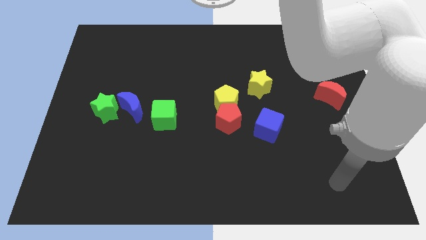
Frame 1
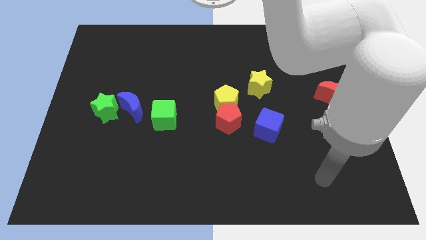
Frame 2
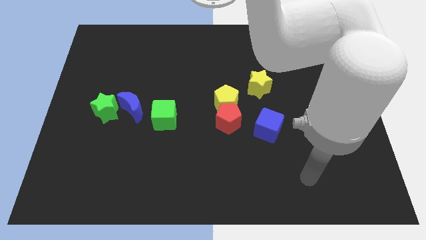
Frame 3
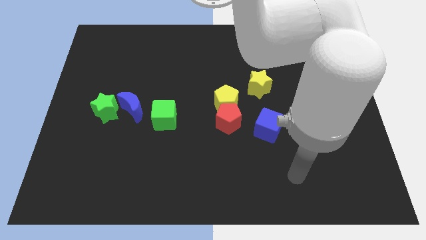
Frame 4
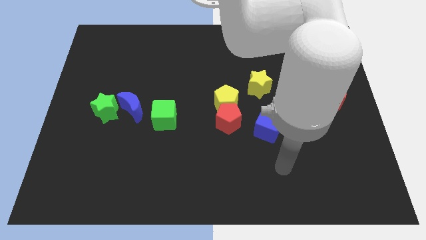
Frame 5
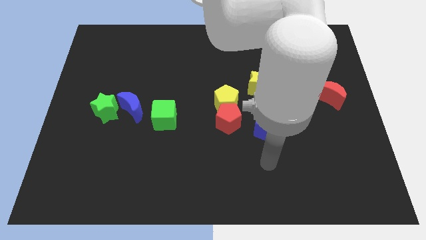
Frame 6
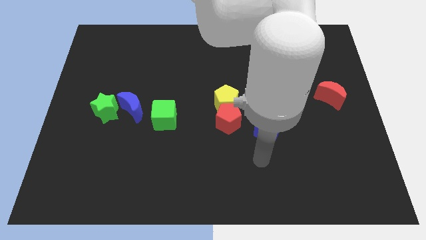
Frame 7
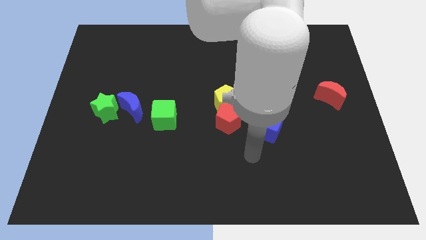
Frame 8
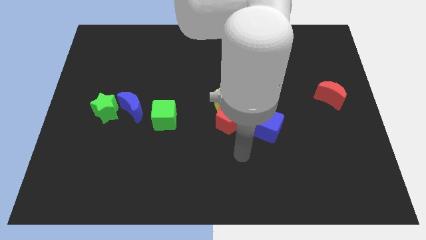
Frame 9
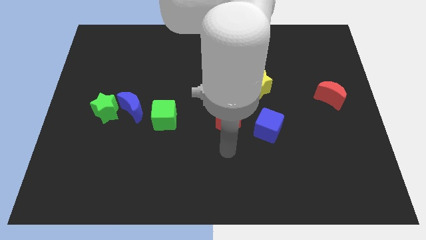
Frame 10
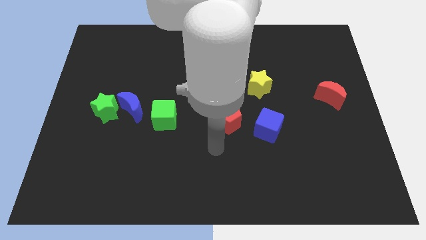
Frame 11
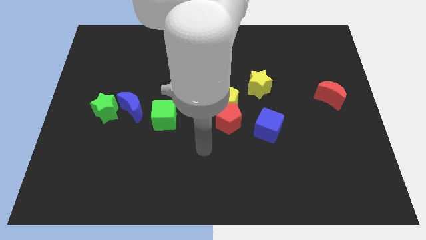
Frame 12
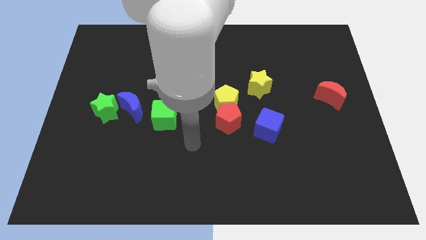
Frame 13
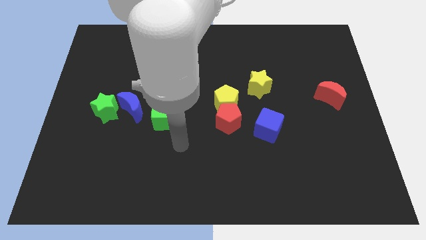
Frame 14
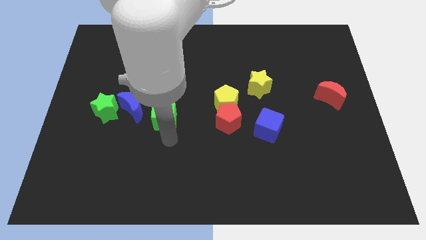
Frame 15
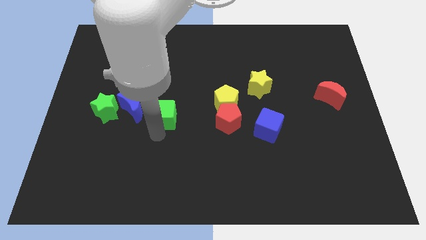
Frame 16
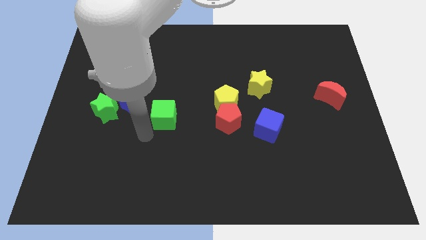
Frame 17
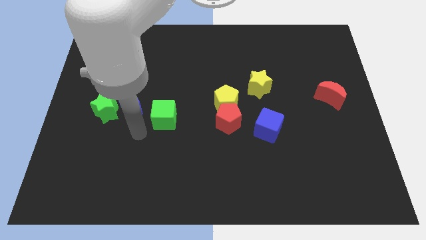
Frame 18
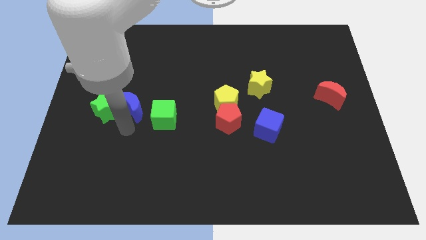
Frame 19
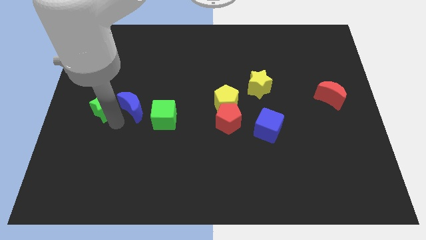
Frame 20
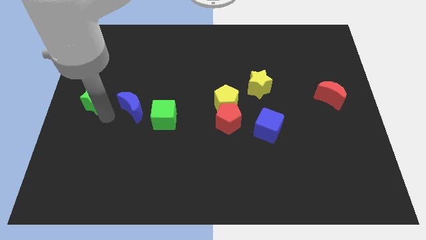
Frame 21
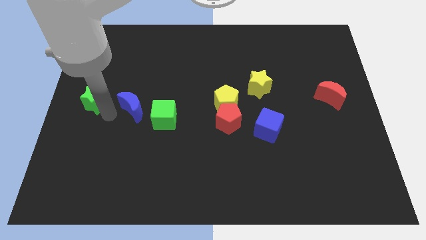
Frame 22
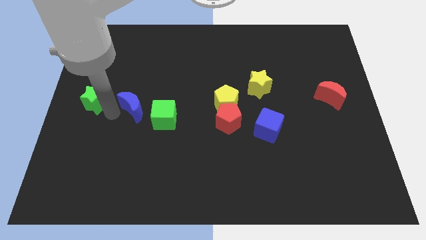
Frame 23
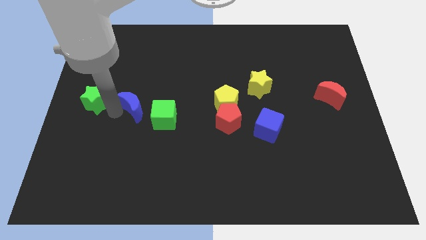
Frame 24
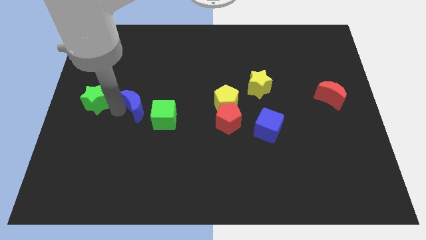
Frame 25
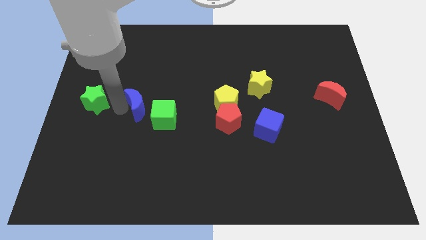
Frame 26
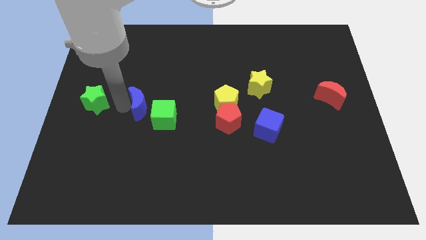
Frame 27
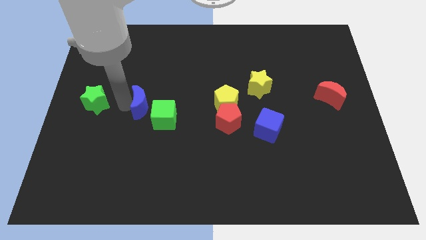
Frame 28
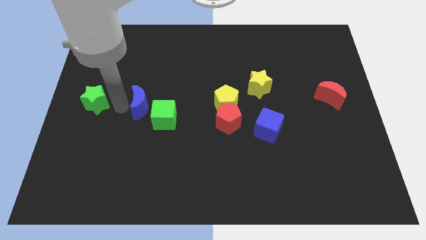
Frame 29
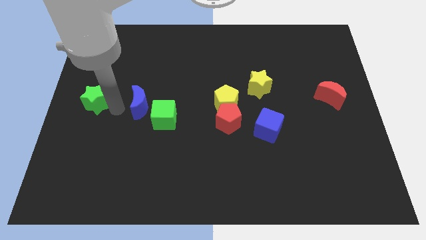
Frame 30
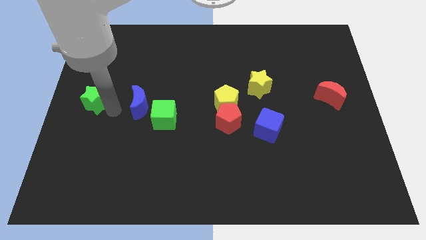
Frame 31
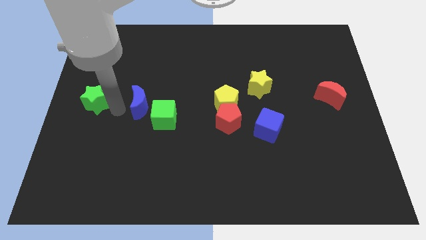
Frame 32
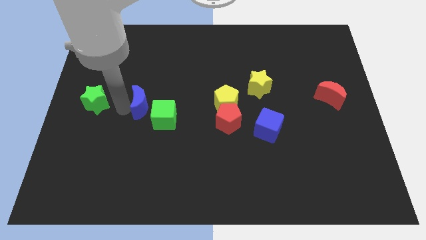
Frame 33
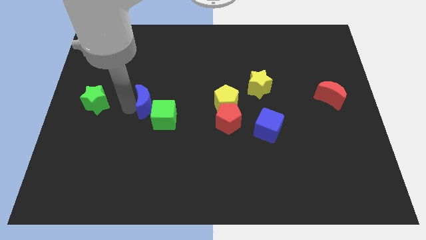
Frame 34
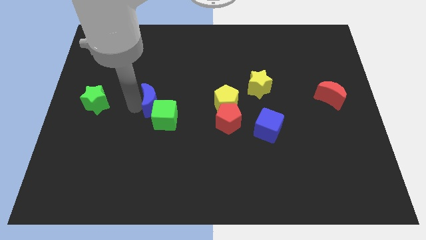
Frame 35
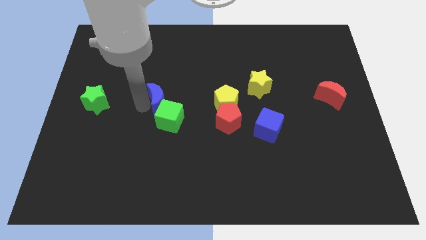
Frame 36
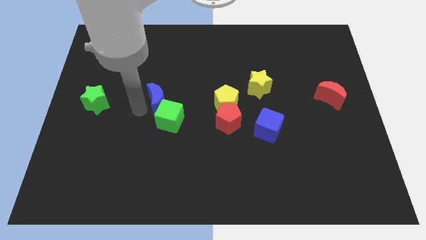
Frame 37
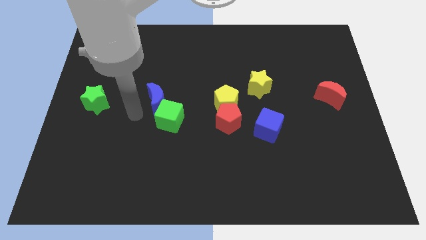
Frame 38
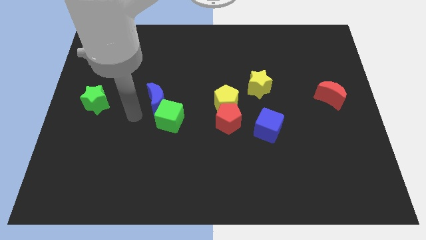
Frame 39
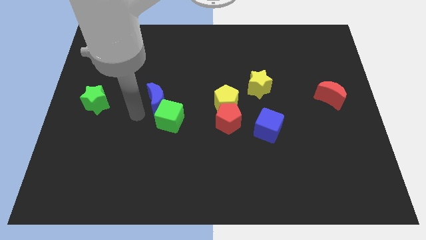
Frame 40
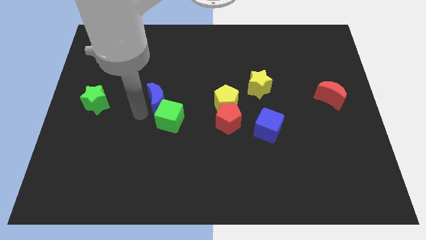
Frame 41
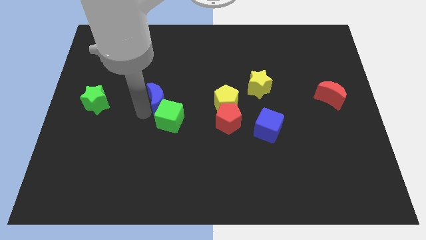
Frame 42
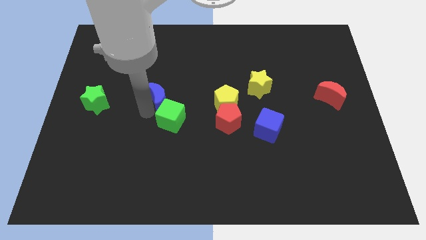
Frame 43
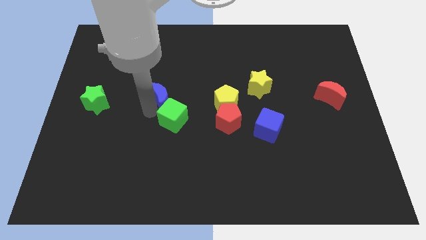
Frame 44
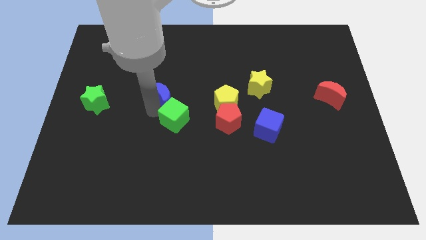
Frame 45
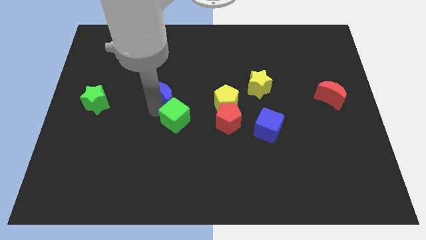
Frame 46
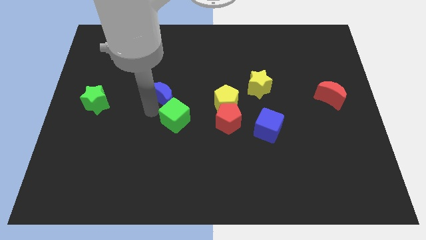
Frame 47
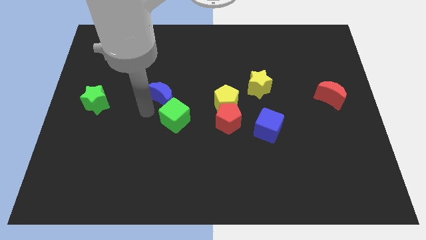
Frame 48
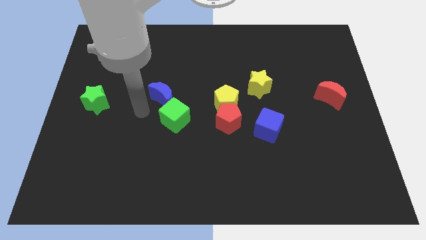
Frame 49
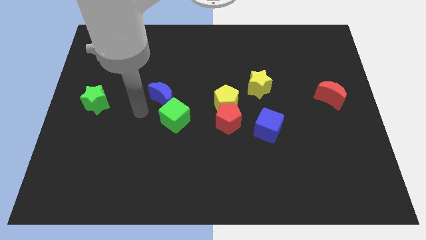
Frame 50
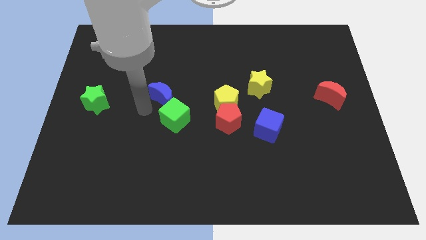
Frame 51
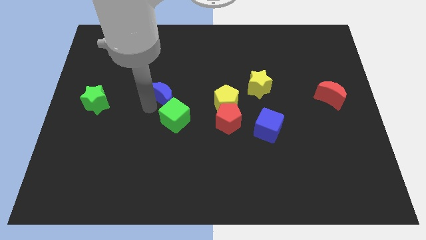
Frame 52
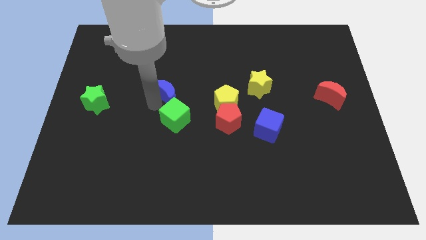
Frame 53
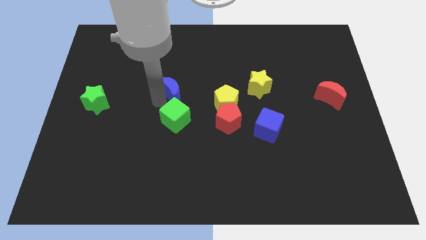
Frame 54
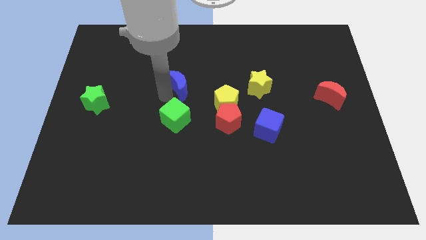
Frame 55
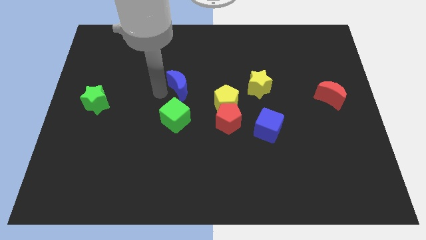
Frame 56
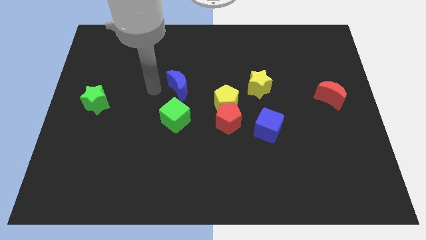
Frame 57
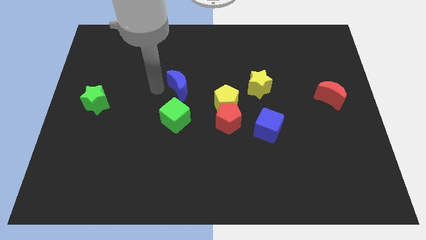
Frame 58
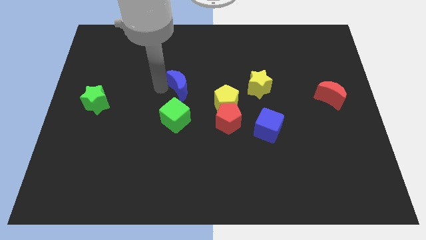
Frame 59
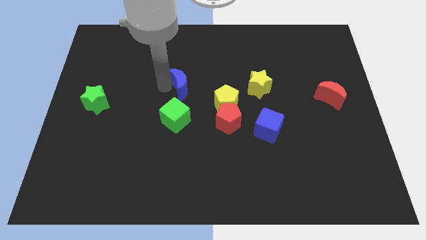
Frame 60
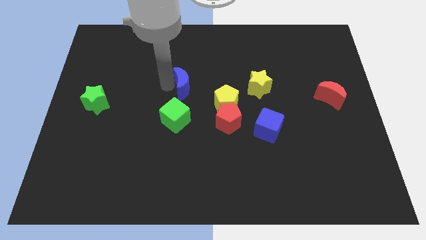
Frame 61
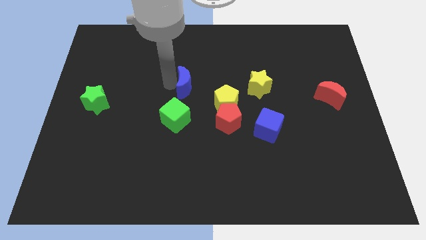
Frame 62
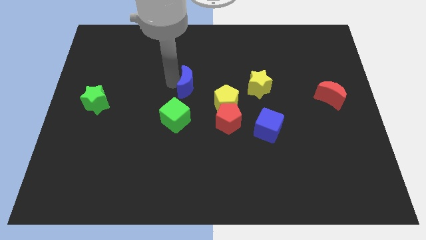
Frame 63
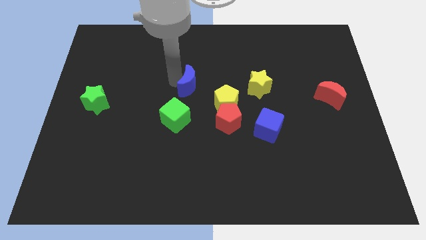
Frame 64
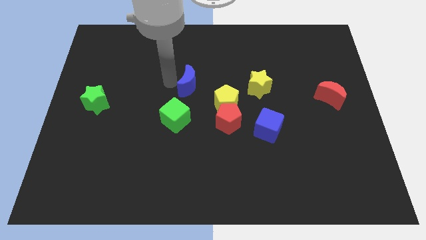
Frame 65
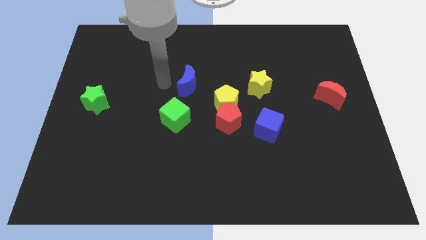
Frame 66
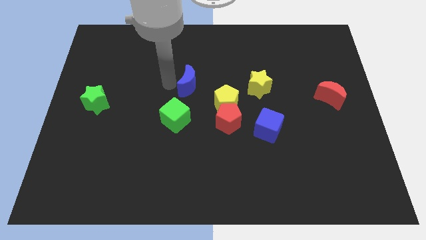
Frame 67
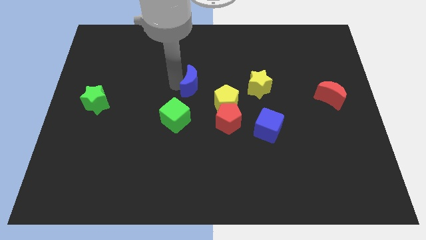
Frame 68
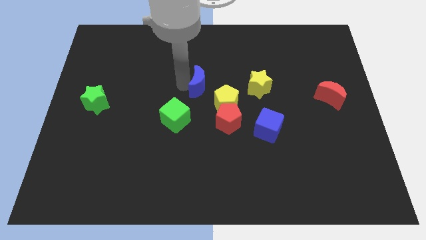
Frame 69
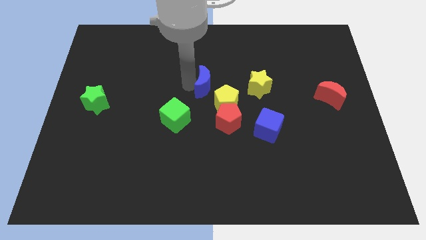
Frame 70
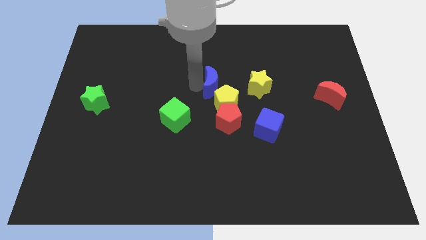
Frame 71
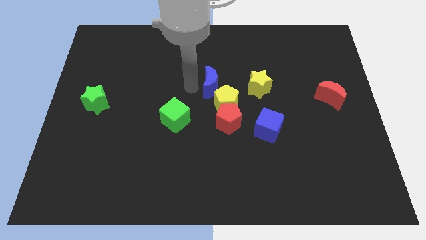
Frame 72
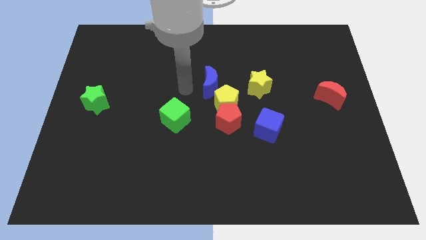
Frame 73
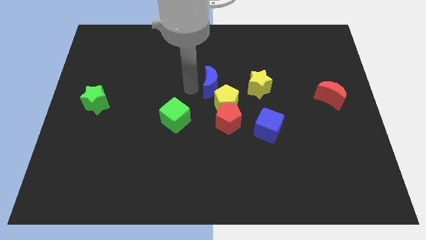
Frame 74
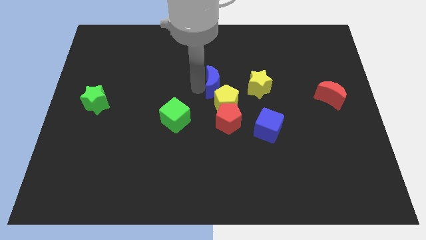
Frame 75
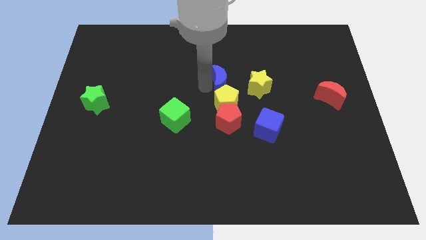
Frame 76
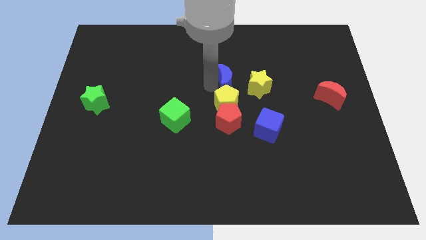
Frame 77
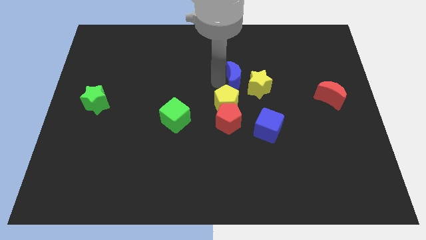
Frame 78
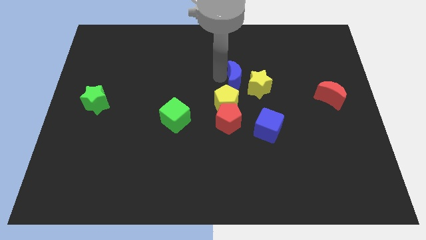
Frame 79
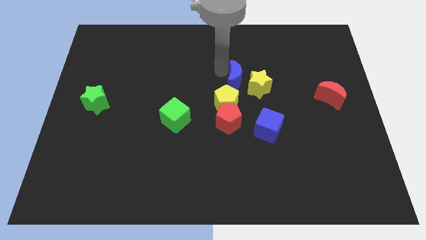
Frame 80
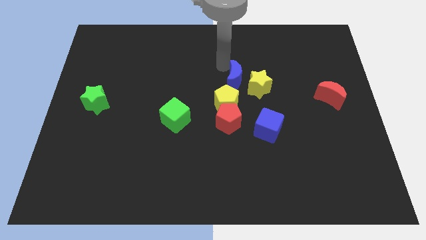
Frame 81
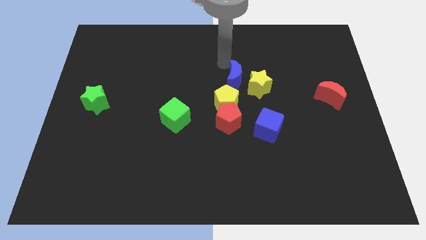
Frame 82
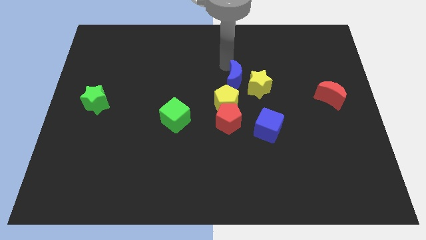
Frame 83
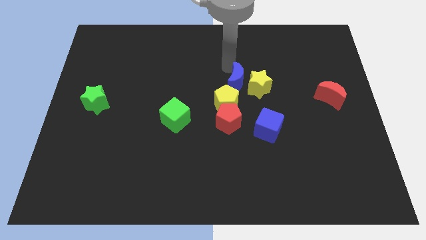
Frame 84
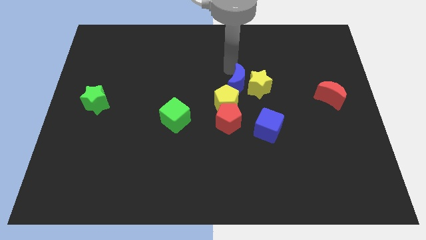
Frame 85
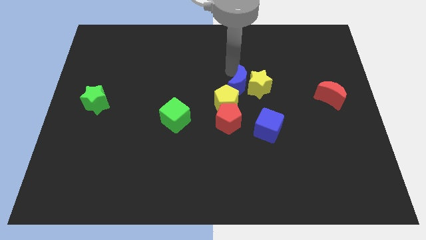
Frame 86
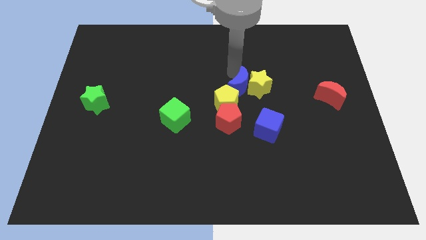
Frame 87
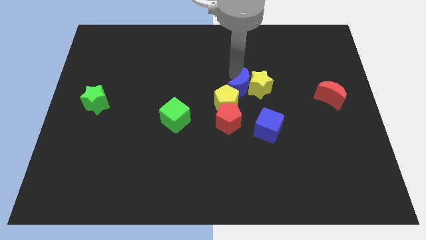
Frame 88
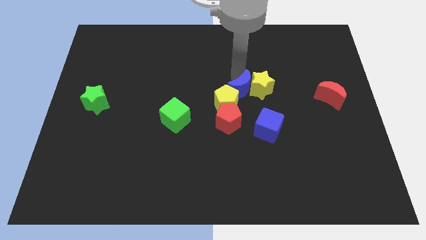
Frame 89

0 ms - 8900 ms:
move the blue moon to the top right side of the red pentagon
